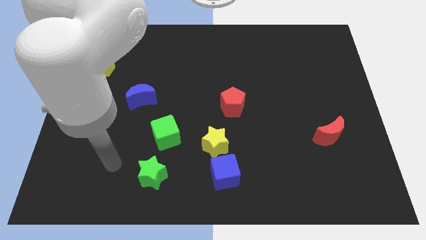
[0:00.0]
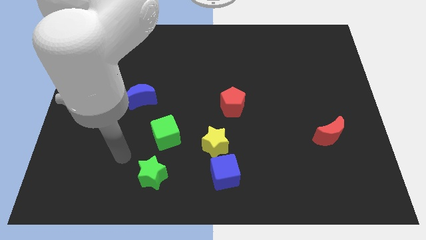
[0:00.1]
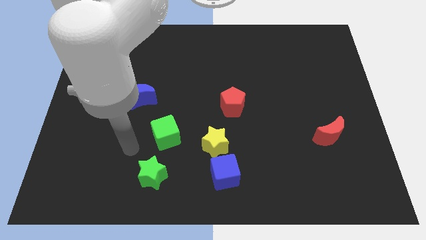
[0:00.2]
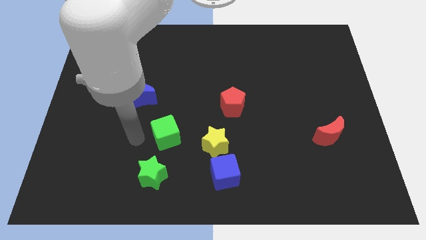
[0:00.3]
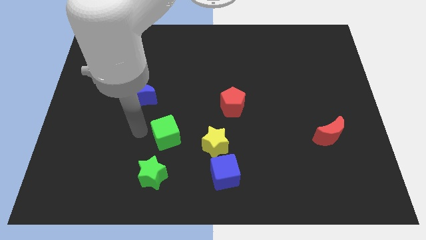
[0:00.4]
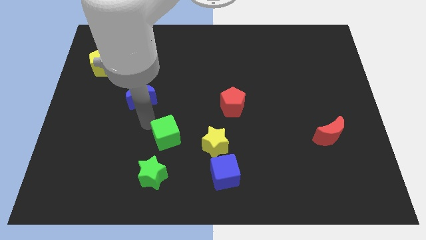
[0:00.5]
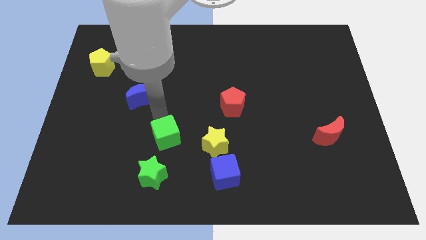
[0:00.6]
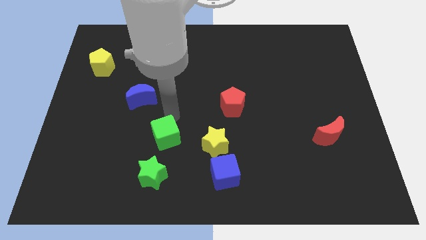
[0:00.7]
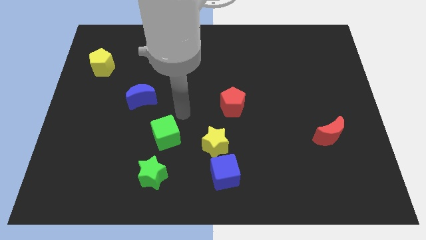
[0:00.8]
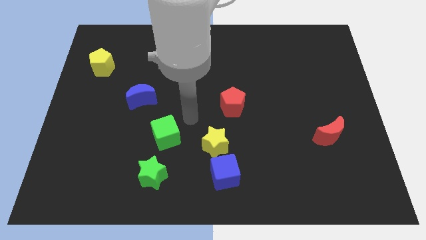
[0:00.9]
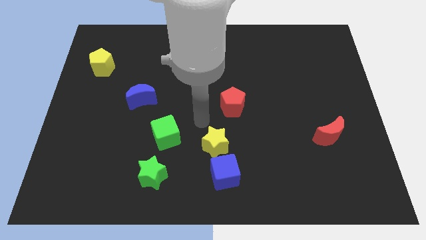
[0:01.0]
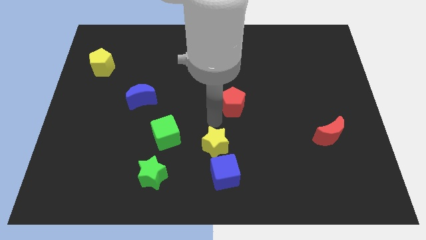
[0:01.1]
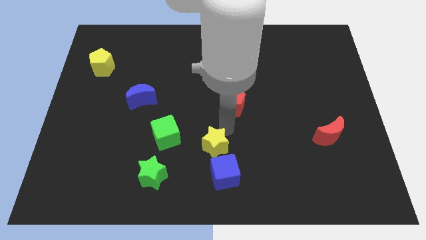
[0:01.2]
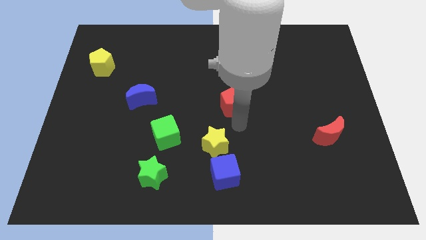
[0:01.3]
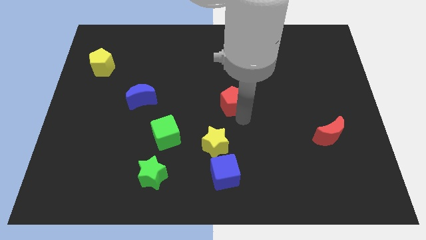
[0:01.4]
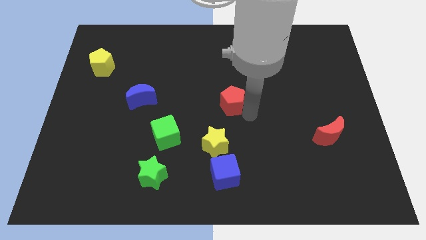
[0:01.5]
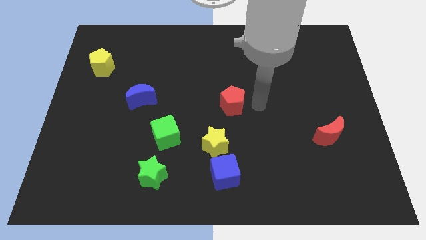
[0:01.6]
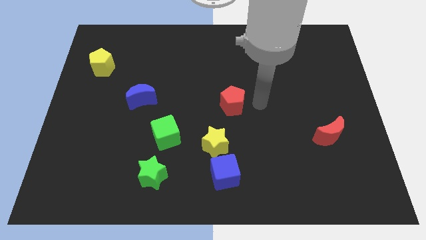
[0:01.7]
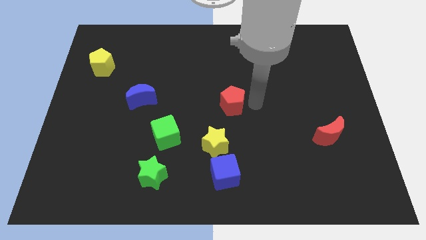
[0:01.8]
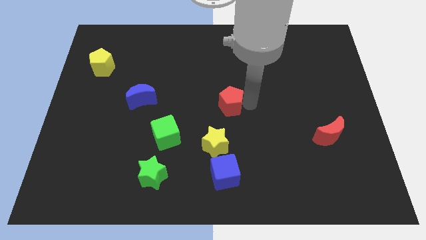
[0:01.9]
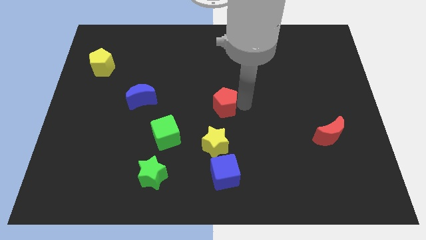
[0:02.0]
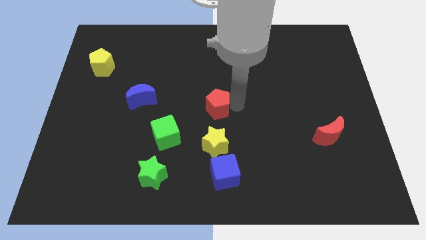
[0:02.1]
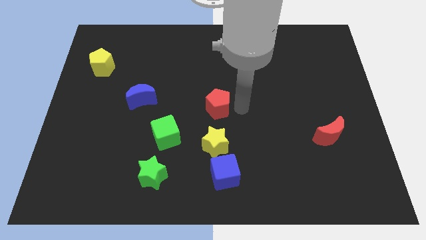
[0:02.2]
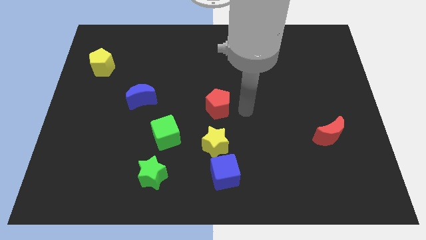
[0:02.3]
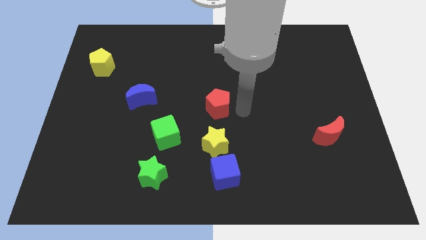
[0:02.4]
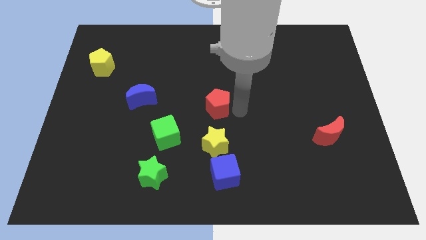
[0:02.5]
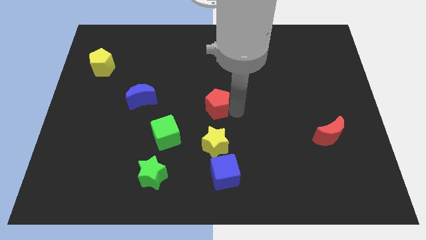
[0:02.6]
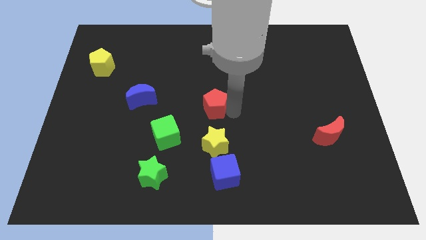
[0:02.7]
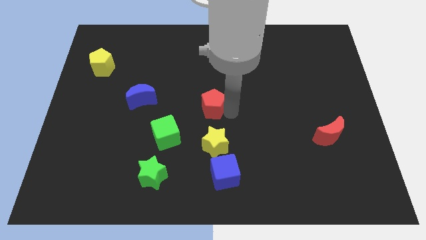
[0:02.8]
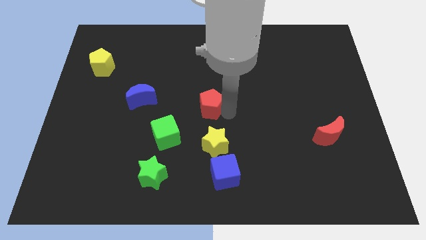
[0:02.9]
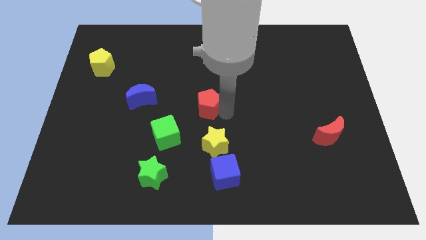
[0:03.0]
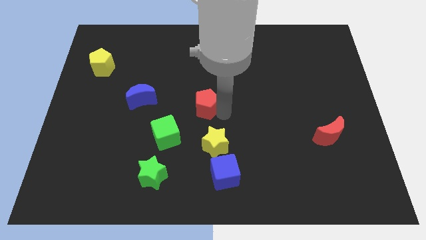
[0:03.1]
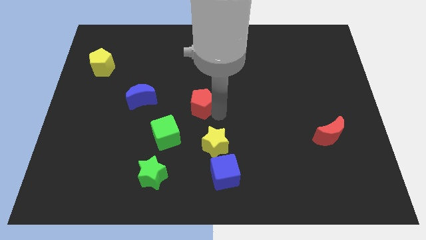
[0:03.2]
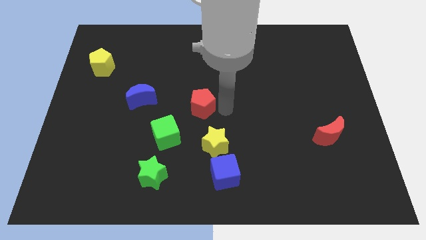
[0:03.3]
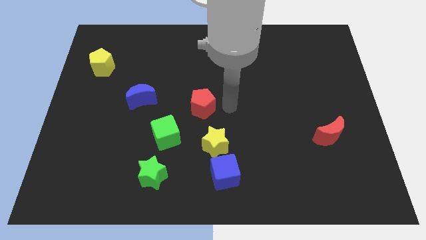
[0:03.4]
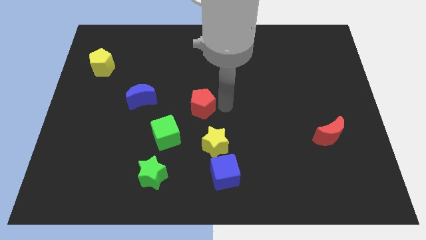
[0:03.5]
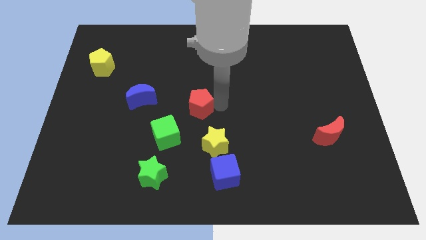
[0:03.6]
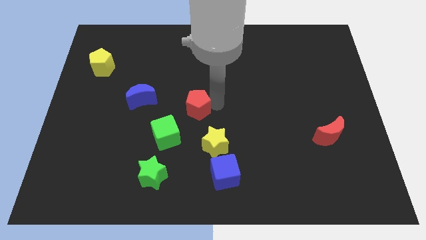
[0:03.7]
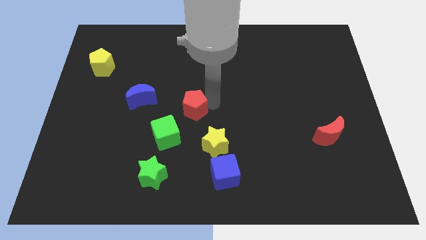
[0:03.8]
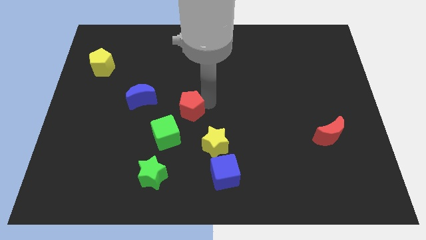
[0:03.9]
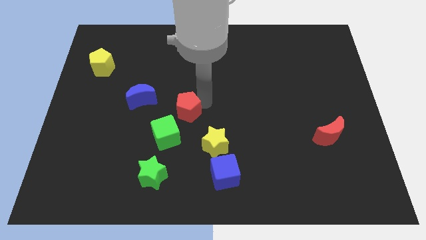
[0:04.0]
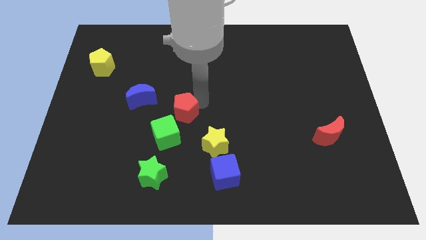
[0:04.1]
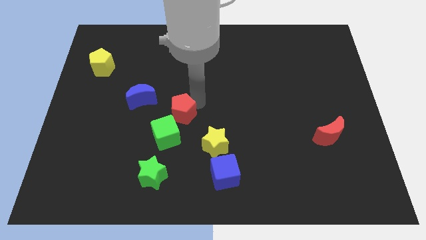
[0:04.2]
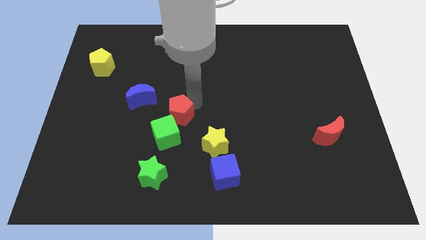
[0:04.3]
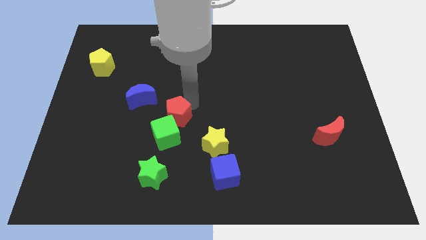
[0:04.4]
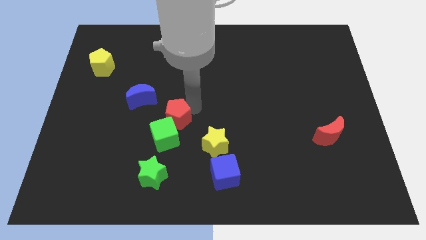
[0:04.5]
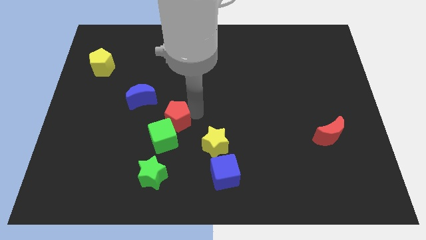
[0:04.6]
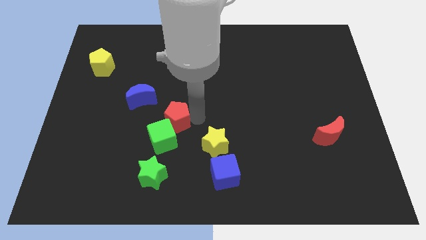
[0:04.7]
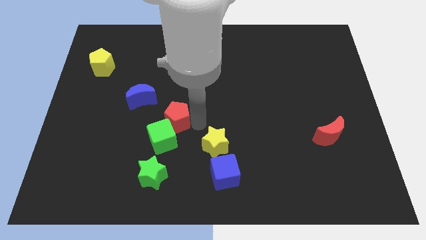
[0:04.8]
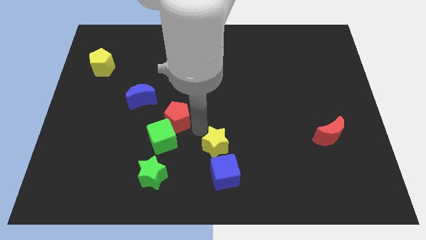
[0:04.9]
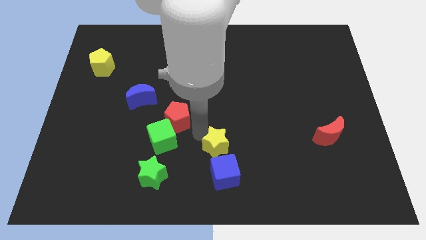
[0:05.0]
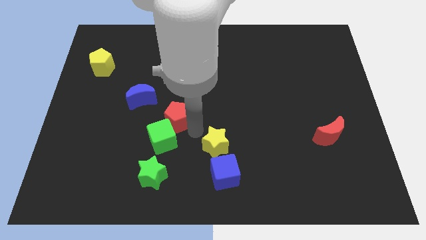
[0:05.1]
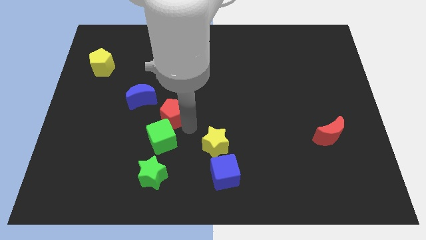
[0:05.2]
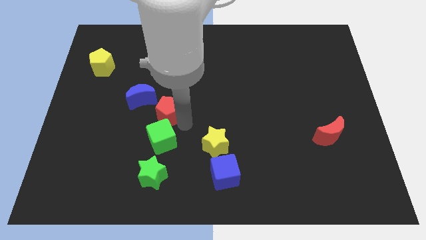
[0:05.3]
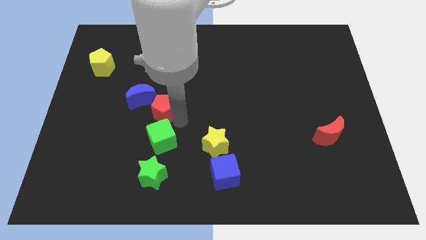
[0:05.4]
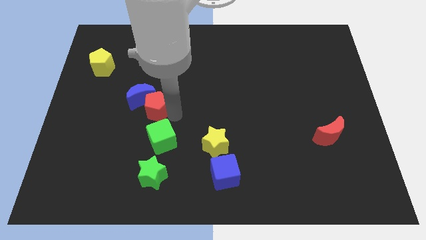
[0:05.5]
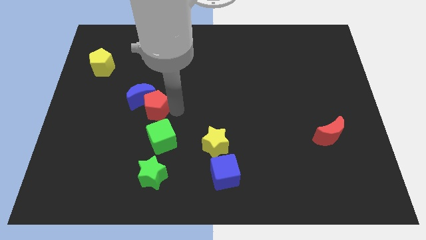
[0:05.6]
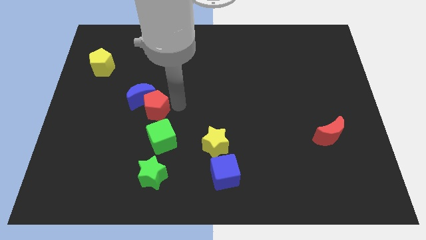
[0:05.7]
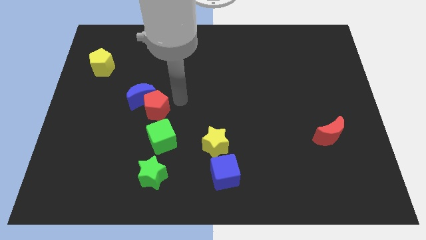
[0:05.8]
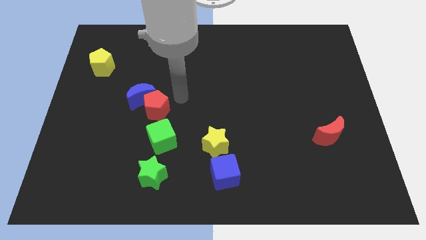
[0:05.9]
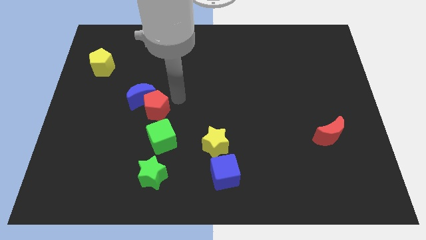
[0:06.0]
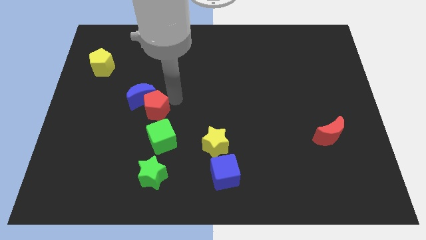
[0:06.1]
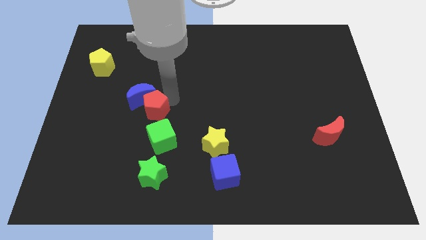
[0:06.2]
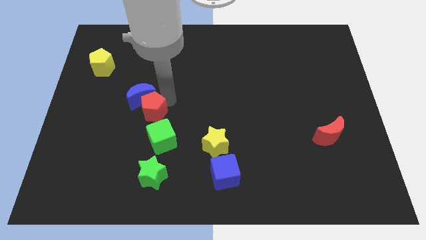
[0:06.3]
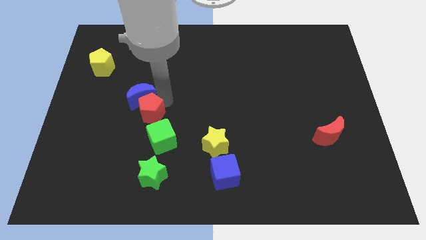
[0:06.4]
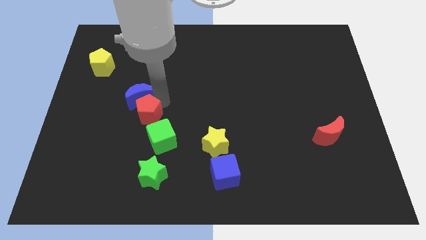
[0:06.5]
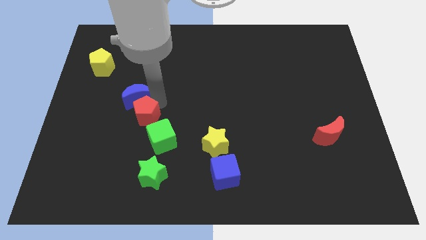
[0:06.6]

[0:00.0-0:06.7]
slide the red pentagon to the left

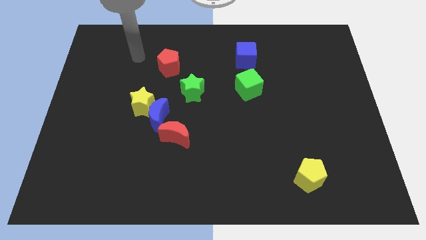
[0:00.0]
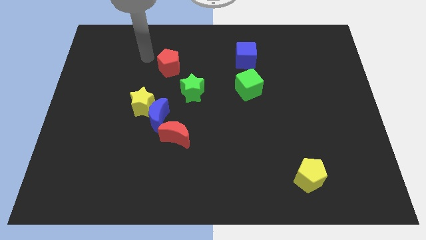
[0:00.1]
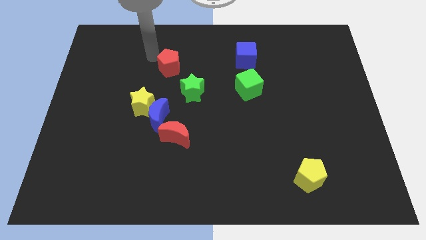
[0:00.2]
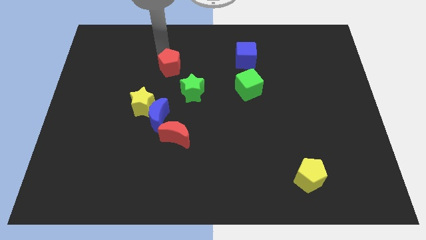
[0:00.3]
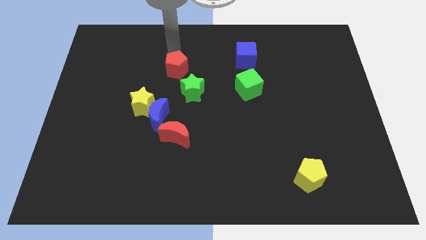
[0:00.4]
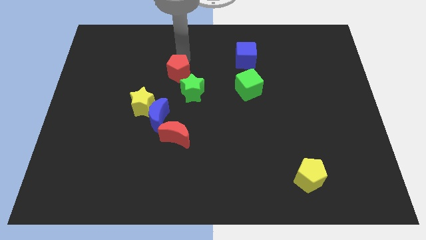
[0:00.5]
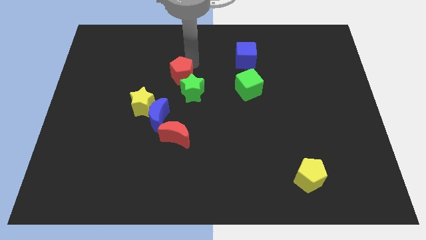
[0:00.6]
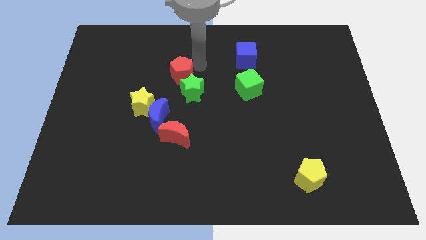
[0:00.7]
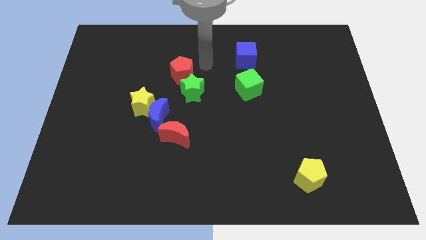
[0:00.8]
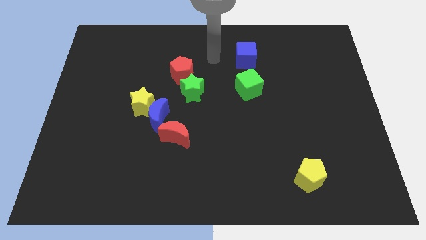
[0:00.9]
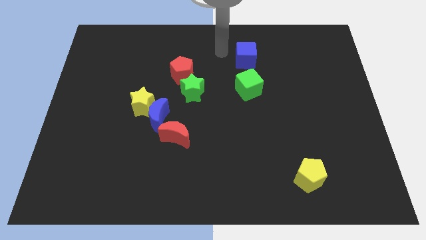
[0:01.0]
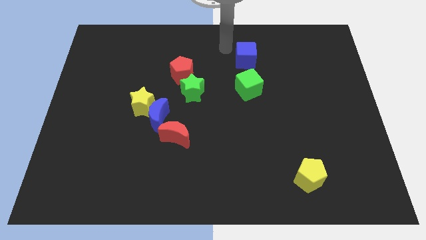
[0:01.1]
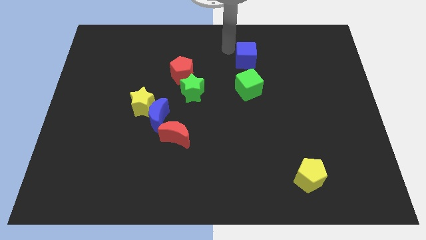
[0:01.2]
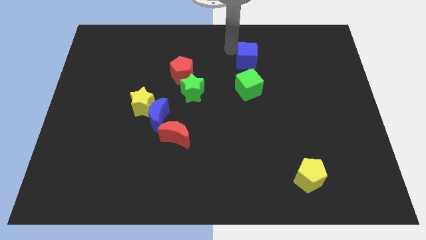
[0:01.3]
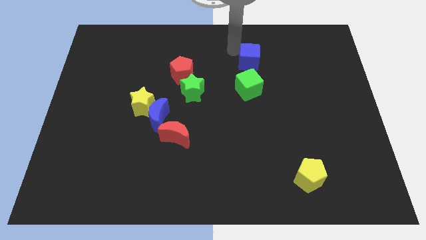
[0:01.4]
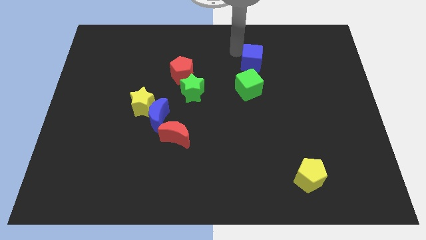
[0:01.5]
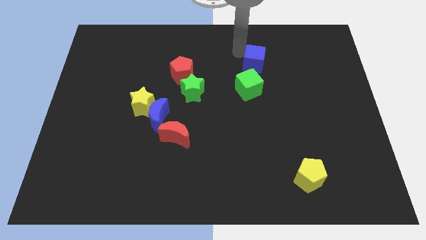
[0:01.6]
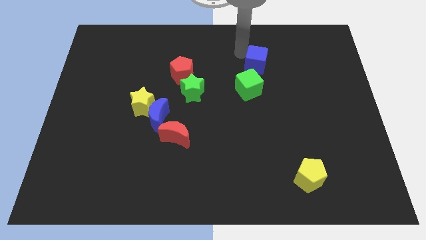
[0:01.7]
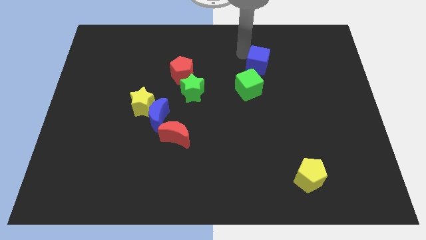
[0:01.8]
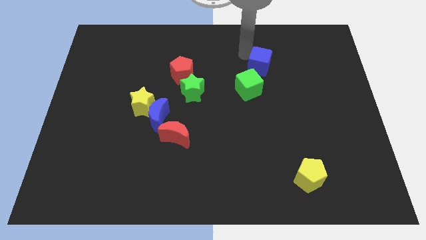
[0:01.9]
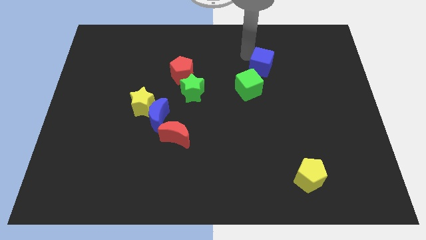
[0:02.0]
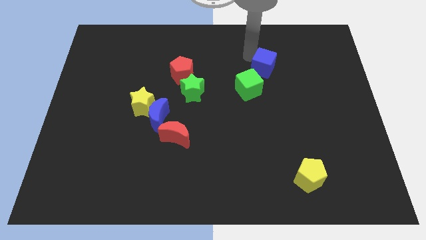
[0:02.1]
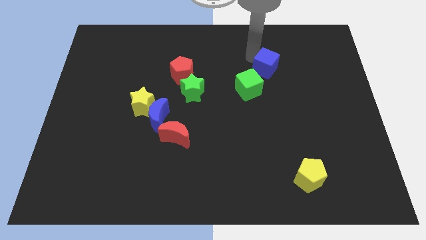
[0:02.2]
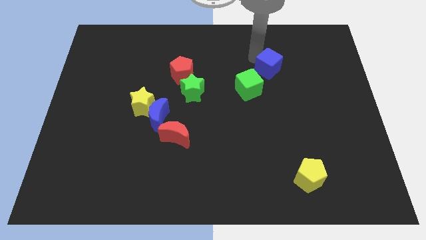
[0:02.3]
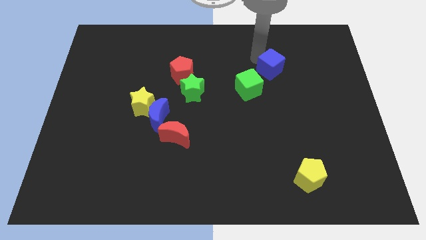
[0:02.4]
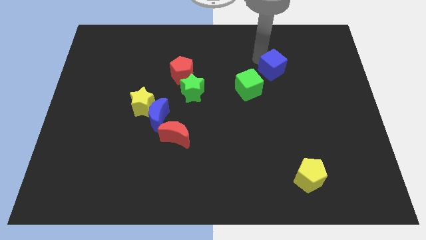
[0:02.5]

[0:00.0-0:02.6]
slide the blue cube downwards and then to the right a little
